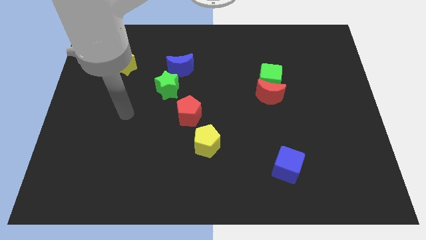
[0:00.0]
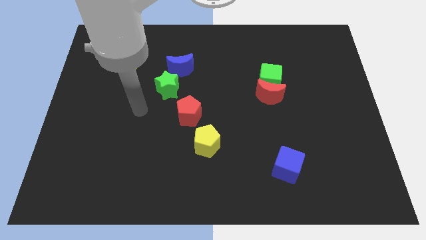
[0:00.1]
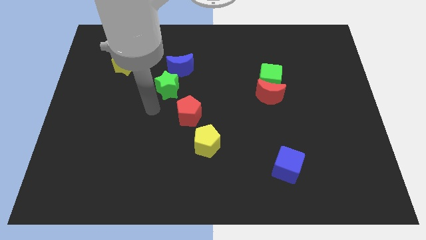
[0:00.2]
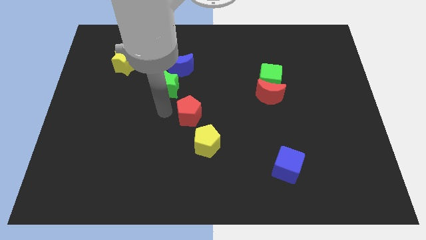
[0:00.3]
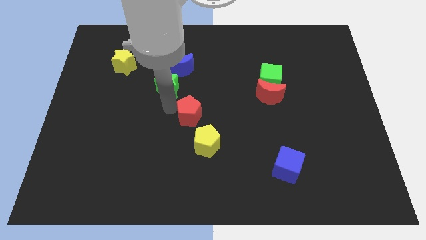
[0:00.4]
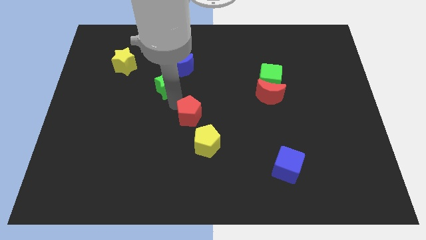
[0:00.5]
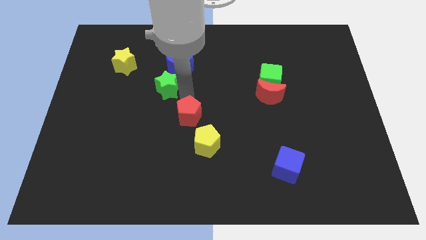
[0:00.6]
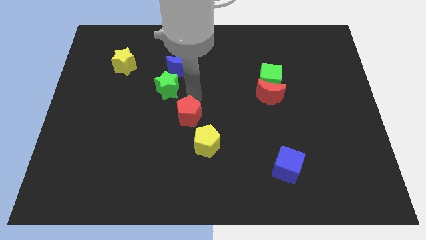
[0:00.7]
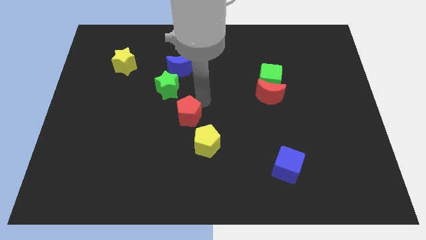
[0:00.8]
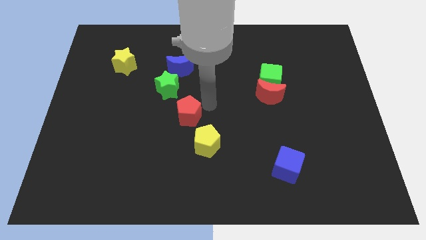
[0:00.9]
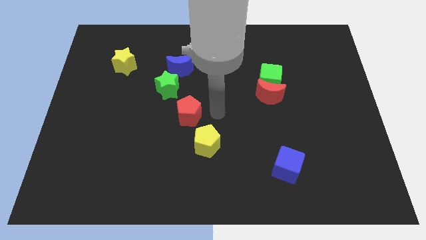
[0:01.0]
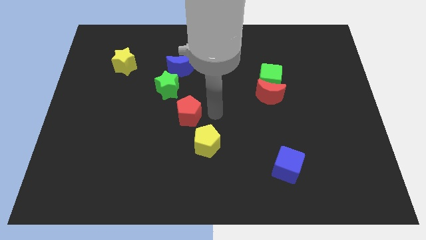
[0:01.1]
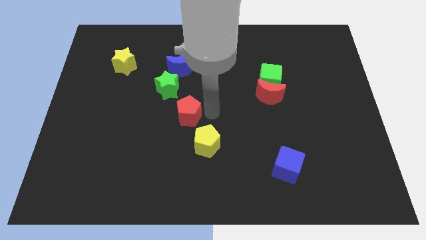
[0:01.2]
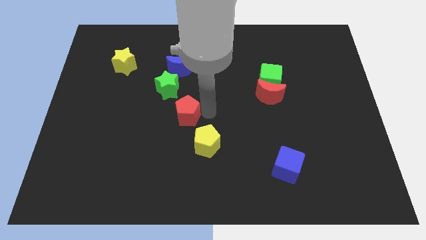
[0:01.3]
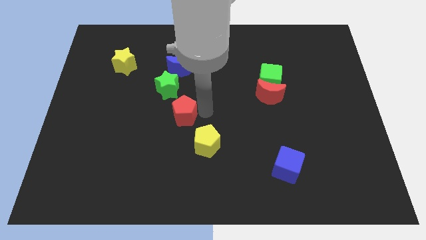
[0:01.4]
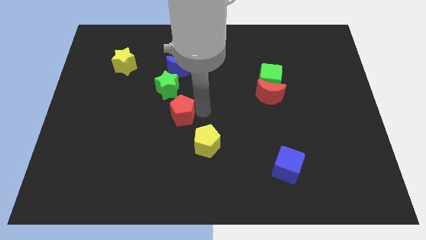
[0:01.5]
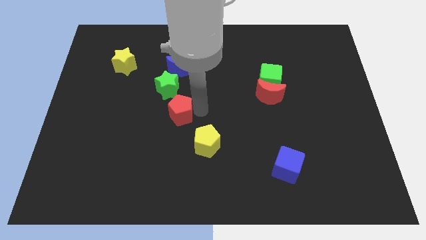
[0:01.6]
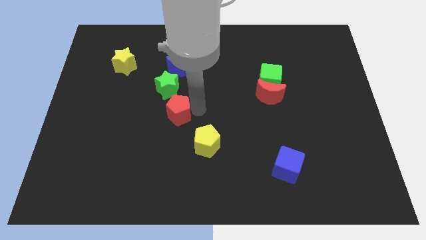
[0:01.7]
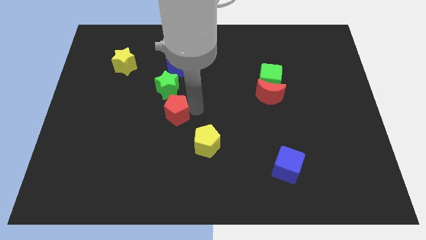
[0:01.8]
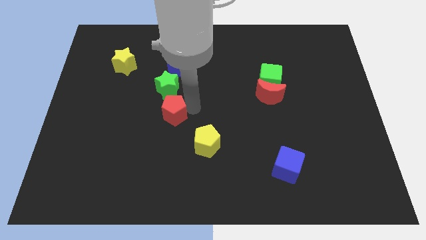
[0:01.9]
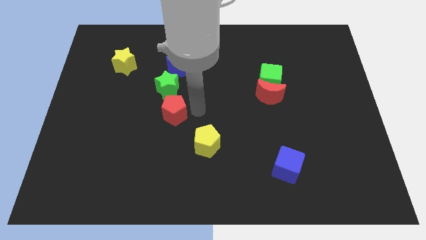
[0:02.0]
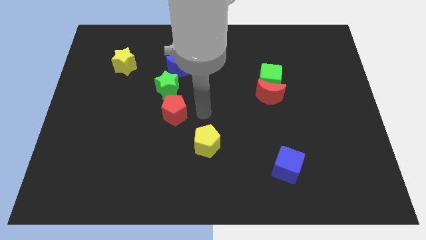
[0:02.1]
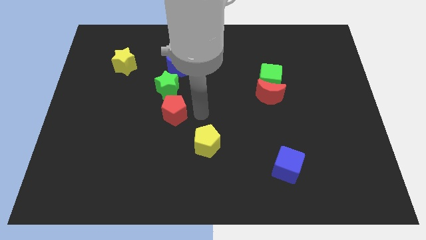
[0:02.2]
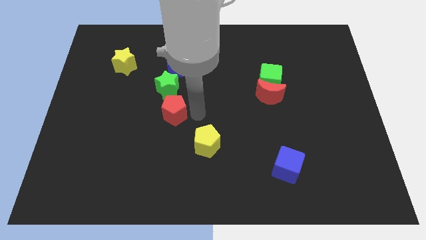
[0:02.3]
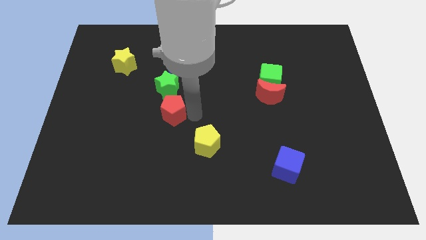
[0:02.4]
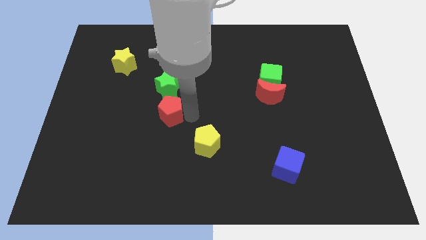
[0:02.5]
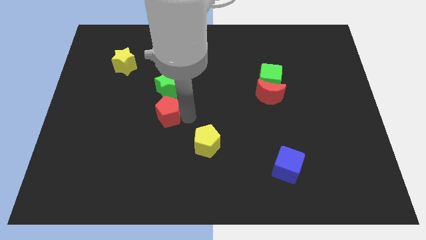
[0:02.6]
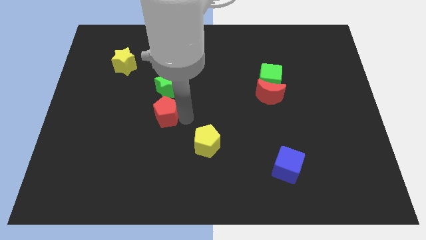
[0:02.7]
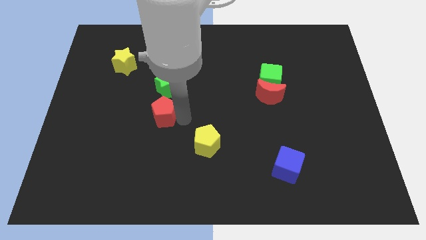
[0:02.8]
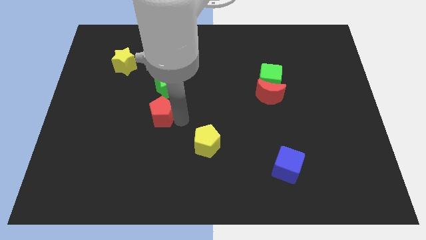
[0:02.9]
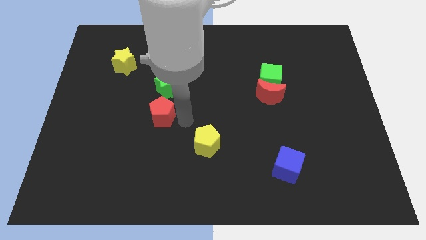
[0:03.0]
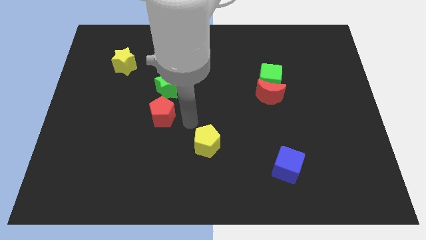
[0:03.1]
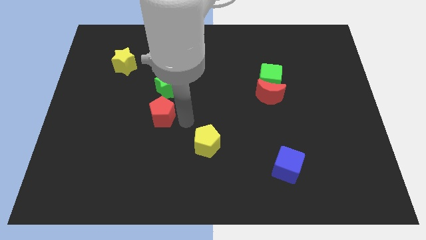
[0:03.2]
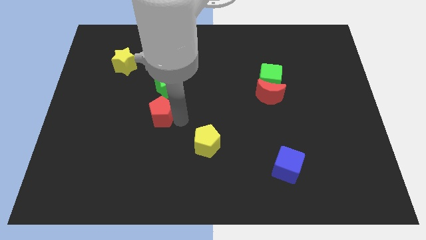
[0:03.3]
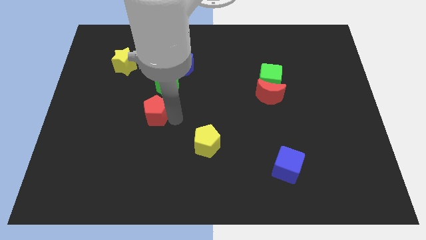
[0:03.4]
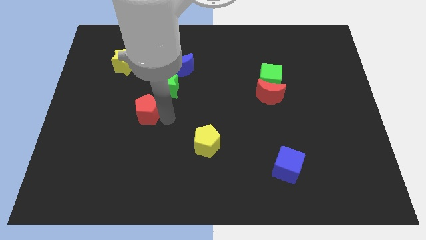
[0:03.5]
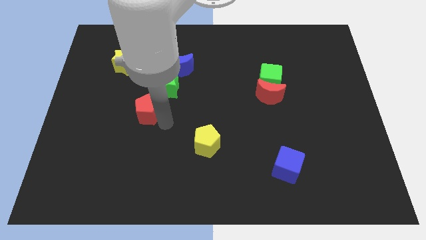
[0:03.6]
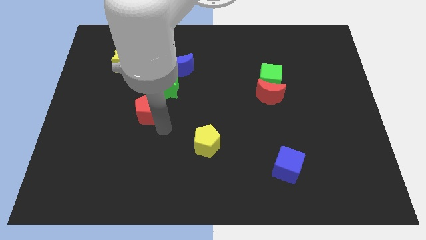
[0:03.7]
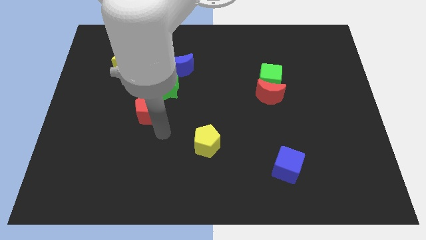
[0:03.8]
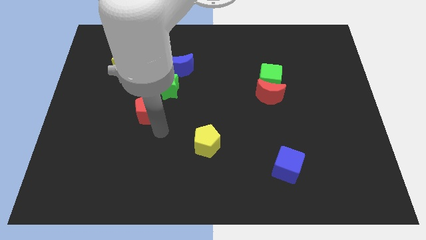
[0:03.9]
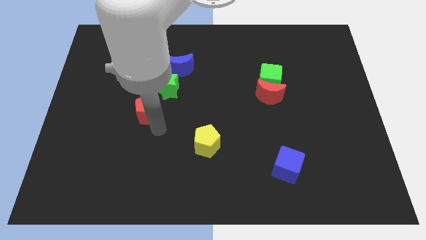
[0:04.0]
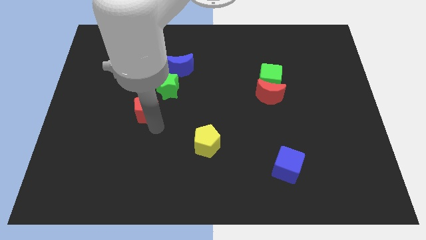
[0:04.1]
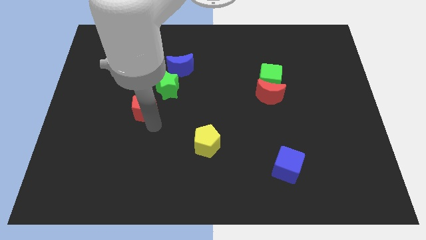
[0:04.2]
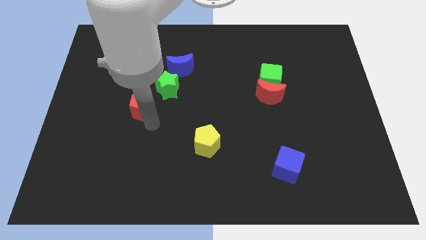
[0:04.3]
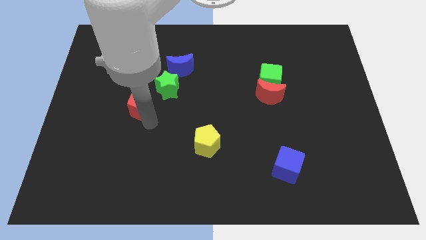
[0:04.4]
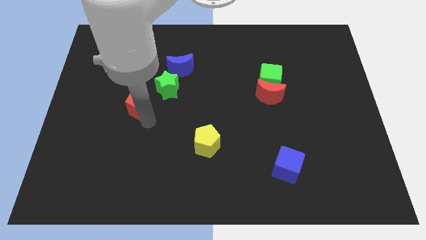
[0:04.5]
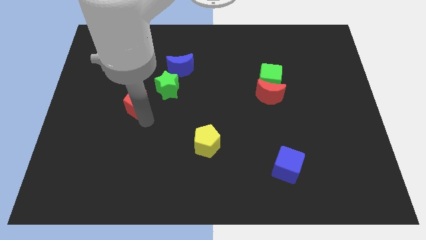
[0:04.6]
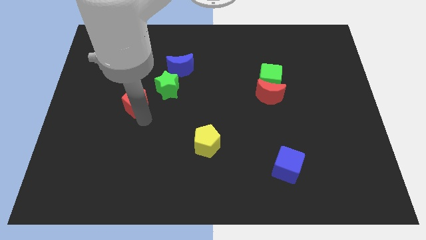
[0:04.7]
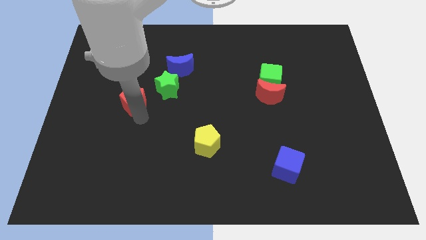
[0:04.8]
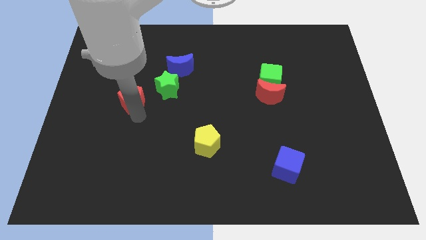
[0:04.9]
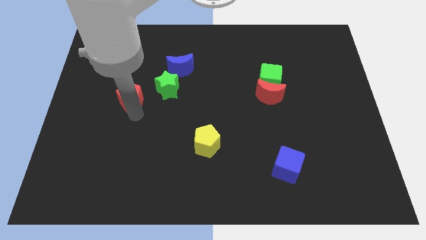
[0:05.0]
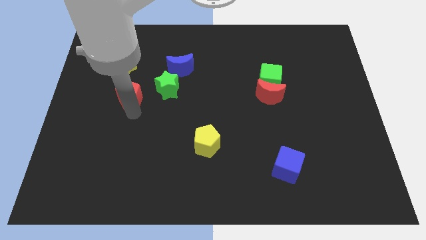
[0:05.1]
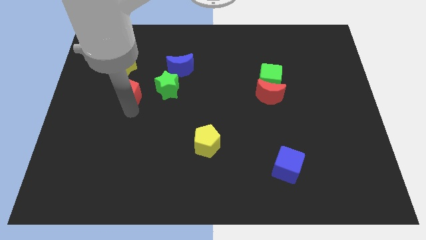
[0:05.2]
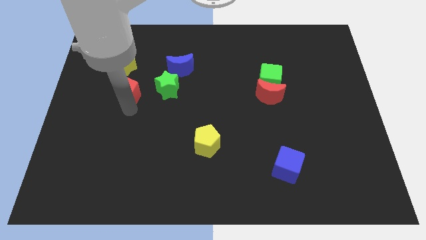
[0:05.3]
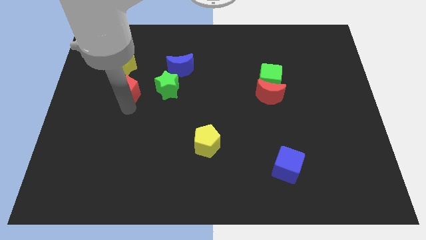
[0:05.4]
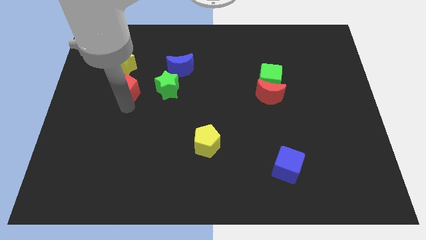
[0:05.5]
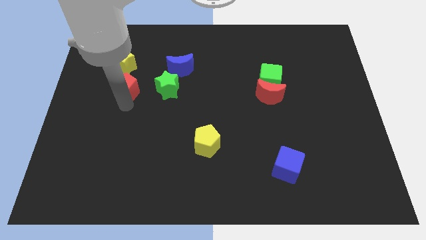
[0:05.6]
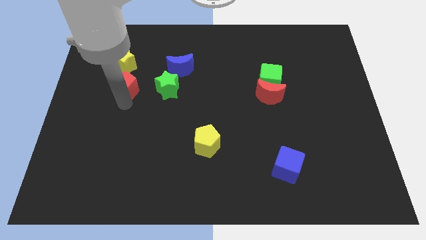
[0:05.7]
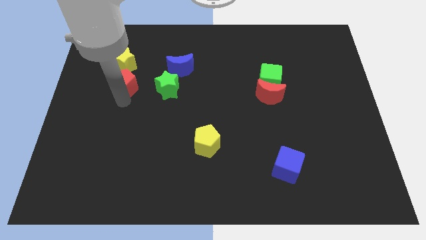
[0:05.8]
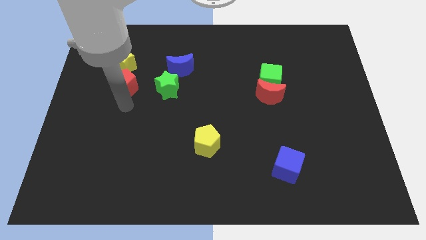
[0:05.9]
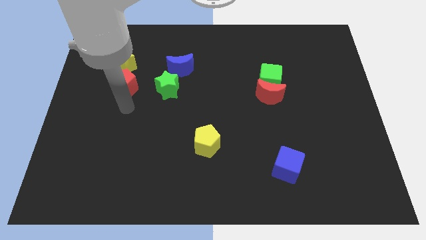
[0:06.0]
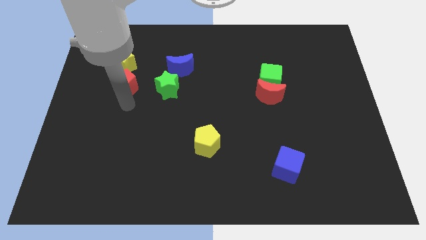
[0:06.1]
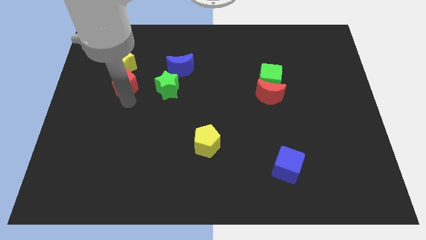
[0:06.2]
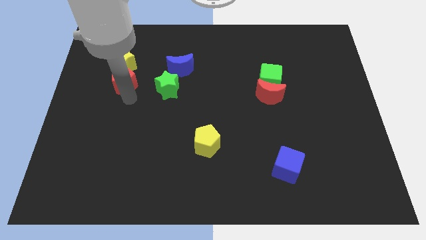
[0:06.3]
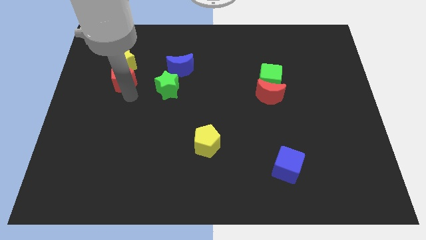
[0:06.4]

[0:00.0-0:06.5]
put the red pentagon to the yellow star

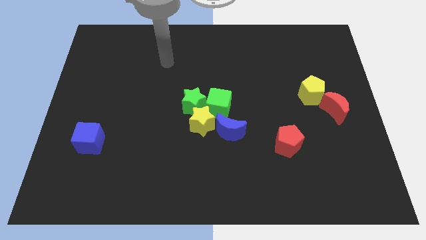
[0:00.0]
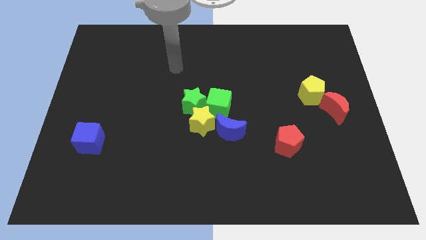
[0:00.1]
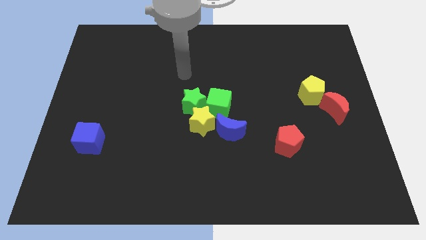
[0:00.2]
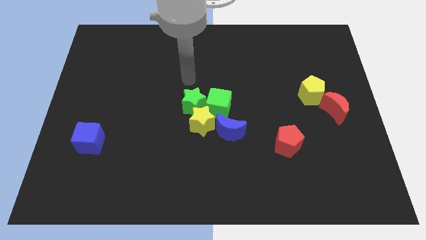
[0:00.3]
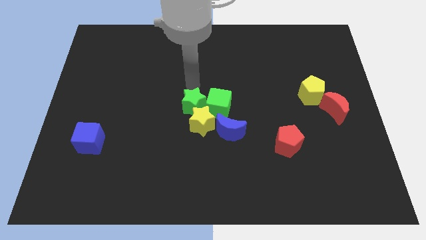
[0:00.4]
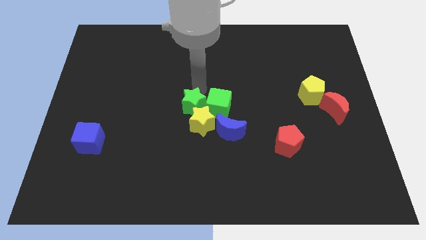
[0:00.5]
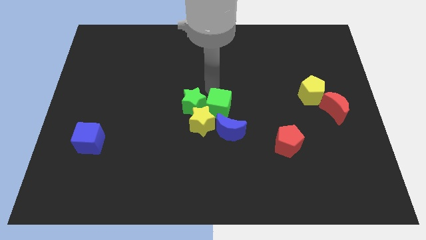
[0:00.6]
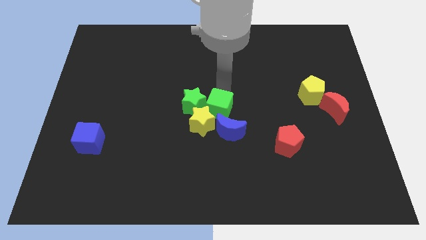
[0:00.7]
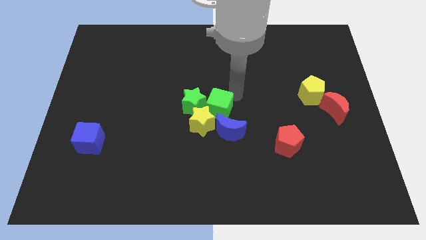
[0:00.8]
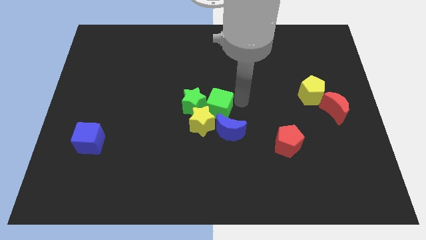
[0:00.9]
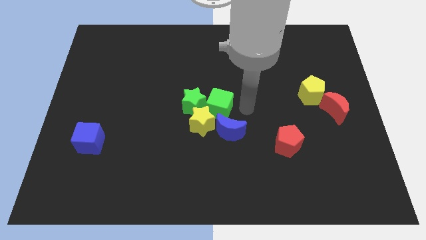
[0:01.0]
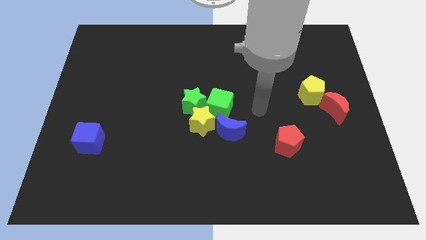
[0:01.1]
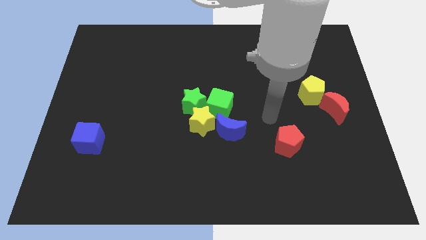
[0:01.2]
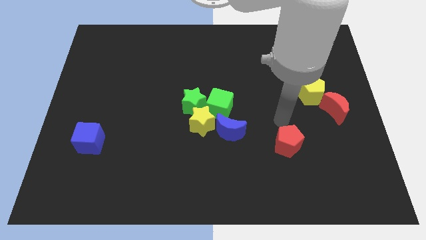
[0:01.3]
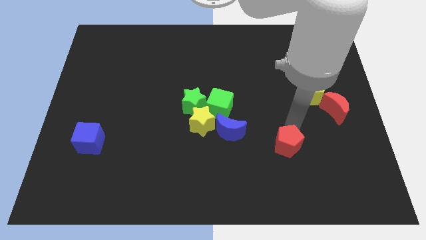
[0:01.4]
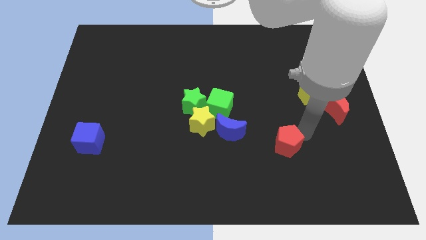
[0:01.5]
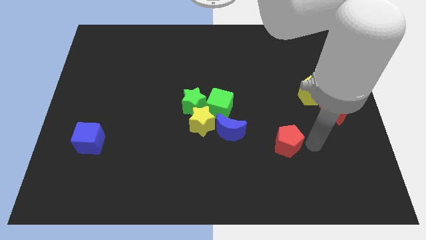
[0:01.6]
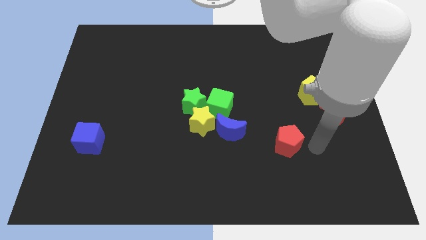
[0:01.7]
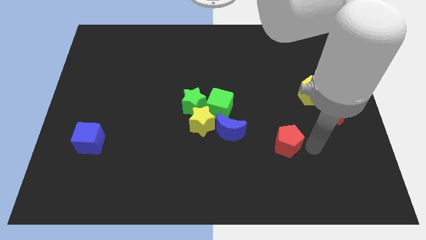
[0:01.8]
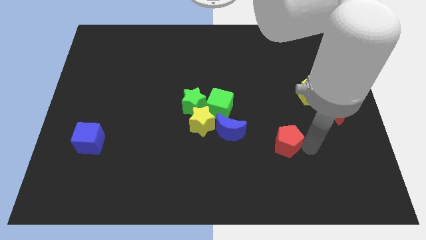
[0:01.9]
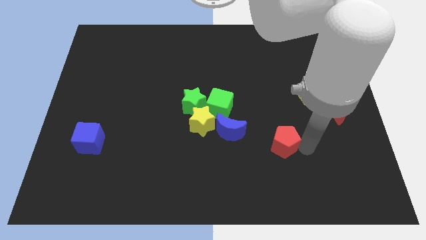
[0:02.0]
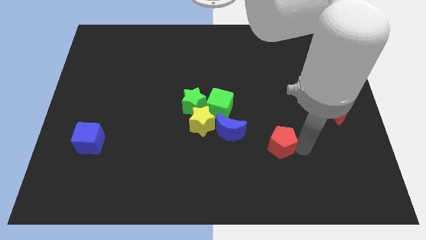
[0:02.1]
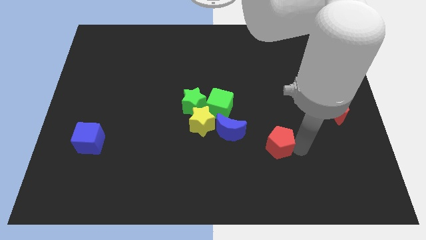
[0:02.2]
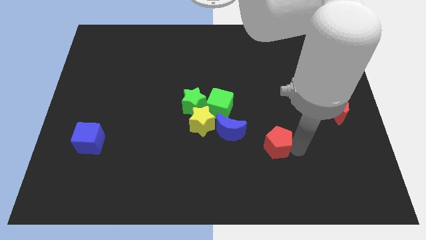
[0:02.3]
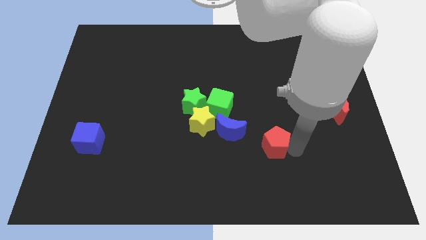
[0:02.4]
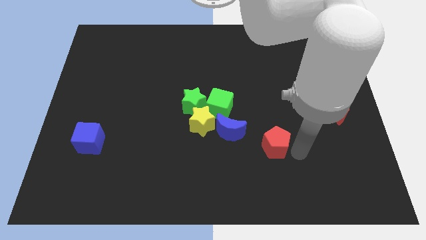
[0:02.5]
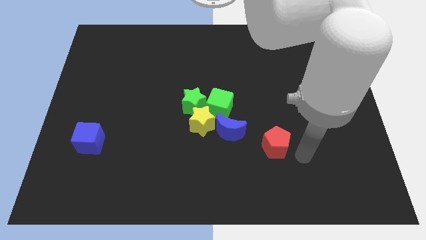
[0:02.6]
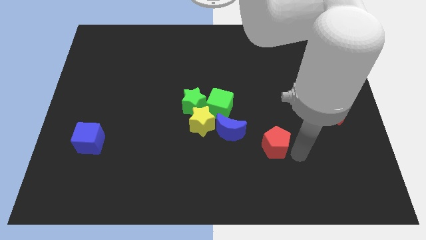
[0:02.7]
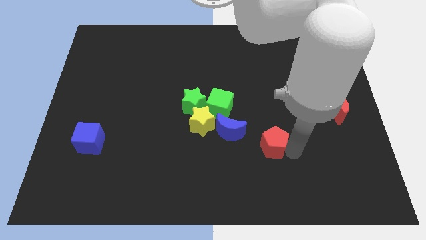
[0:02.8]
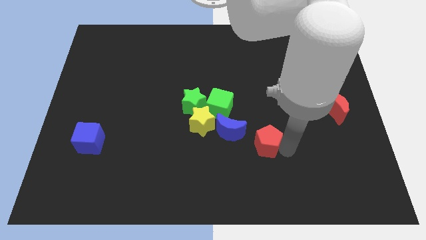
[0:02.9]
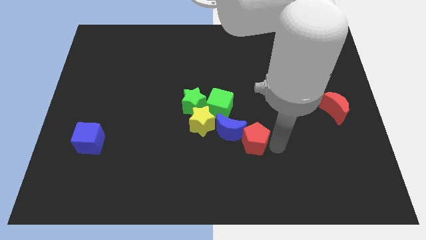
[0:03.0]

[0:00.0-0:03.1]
put the red pentagon towards the blue moon
